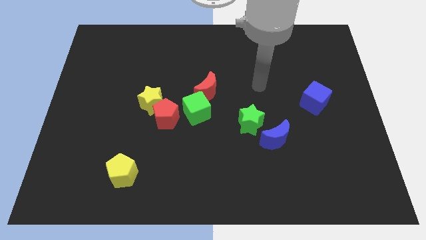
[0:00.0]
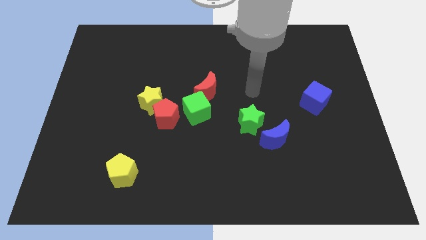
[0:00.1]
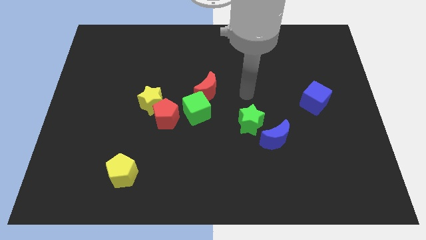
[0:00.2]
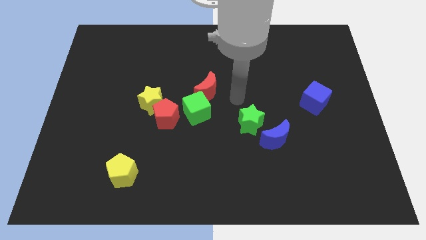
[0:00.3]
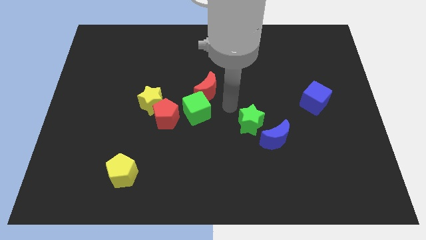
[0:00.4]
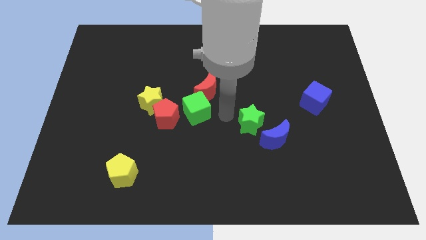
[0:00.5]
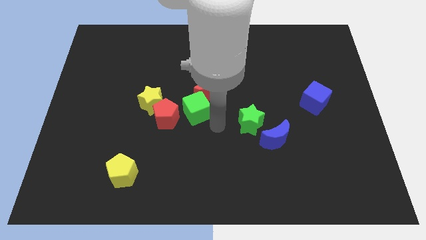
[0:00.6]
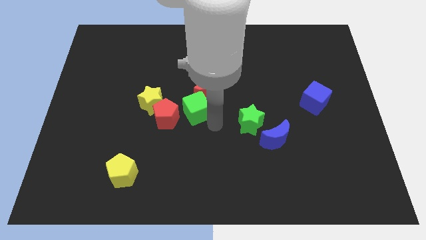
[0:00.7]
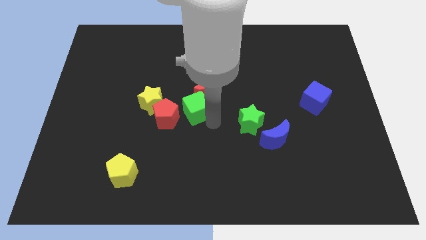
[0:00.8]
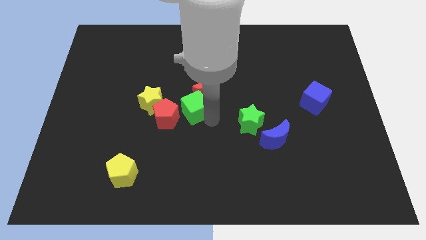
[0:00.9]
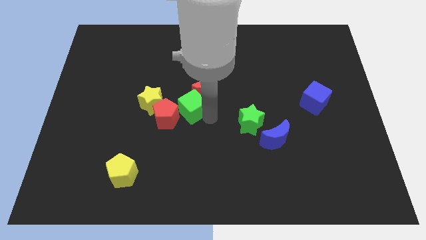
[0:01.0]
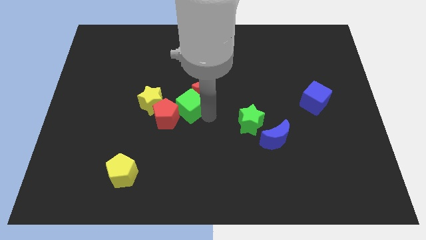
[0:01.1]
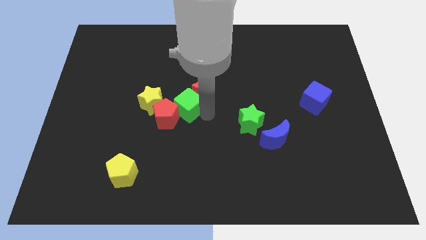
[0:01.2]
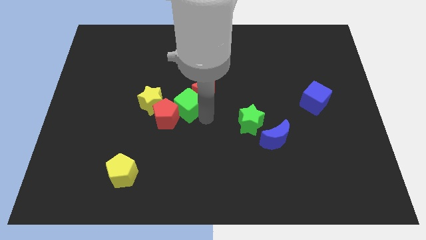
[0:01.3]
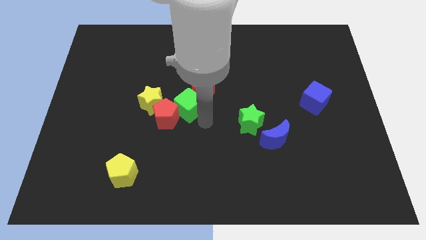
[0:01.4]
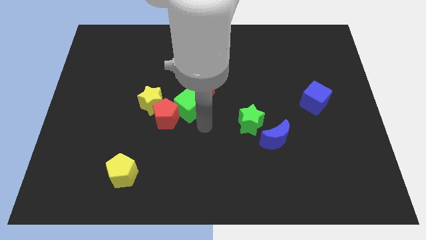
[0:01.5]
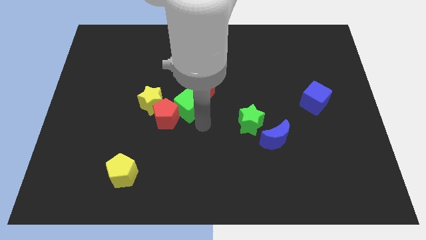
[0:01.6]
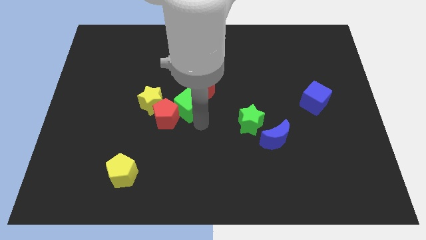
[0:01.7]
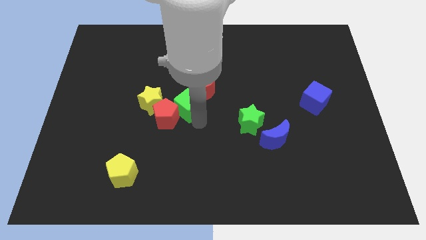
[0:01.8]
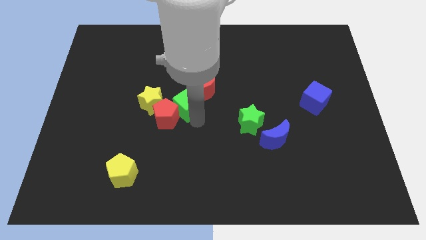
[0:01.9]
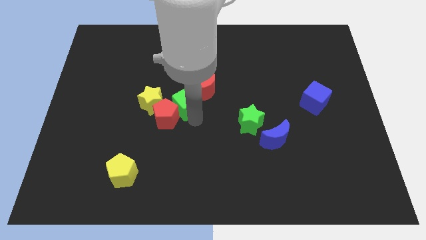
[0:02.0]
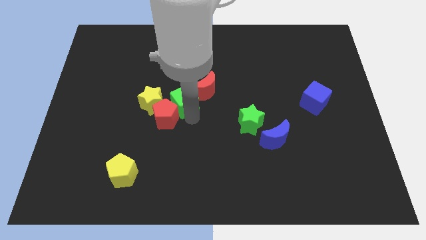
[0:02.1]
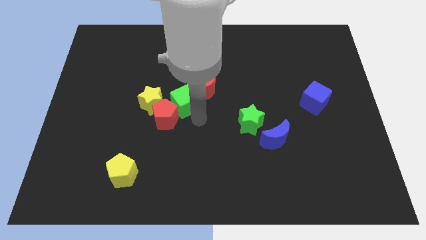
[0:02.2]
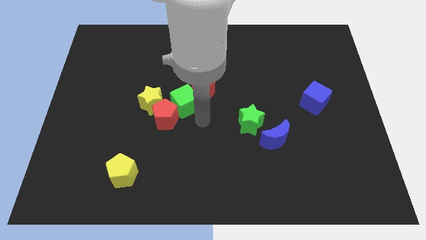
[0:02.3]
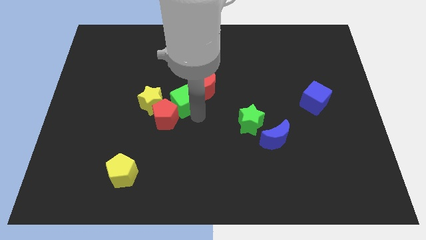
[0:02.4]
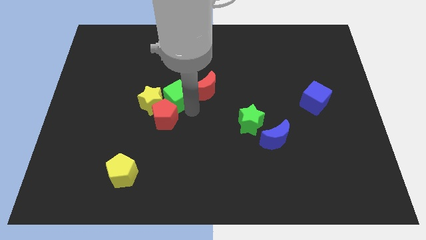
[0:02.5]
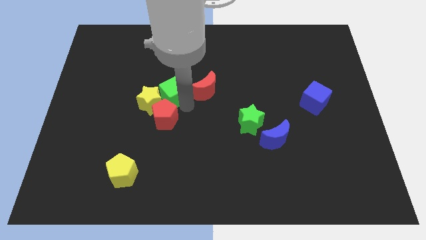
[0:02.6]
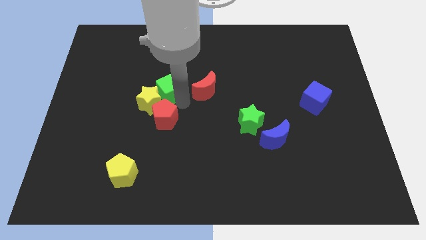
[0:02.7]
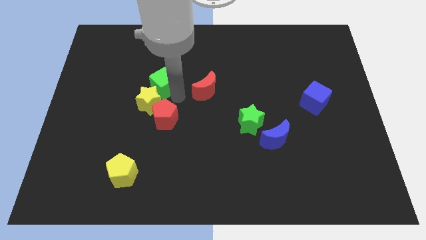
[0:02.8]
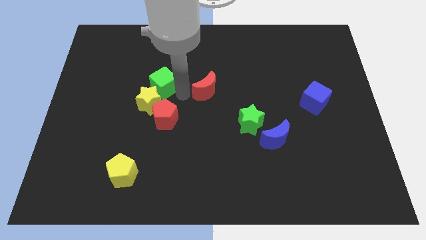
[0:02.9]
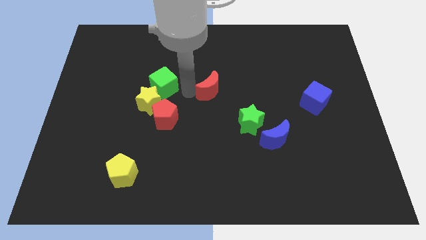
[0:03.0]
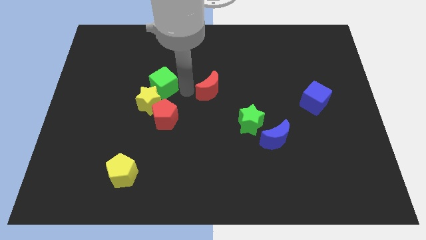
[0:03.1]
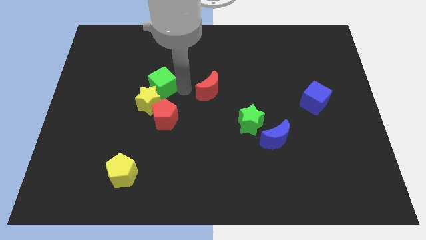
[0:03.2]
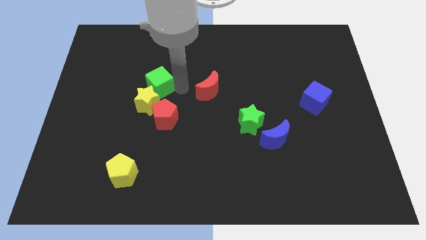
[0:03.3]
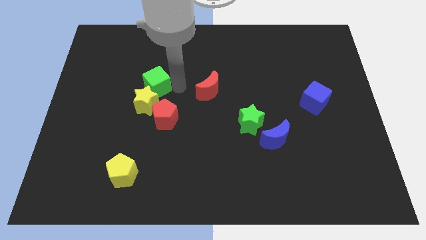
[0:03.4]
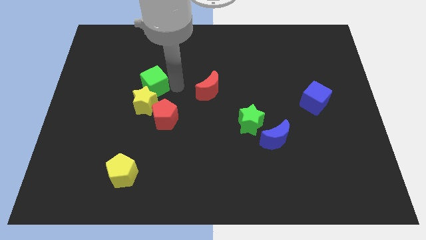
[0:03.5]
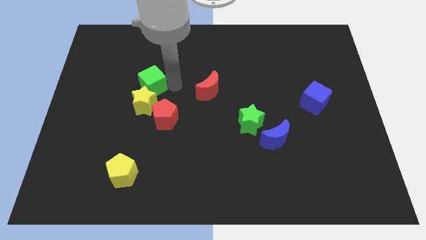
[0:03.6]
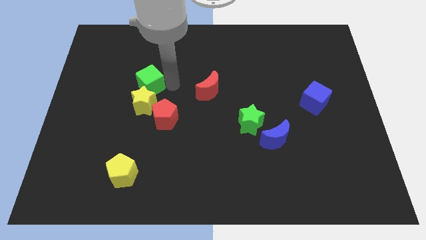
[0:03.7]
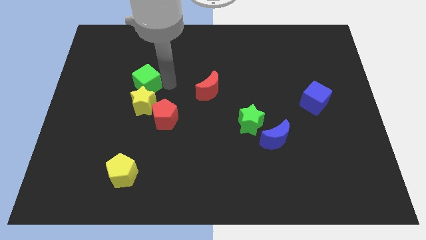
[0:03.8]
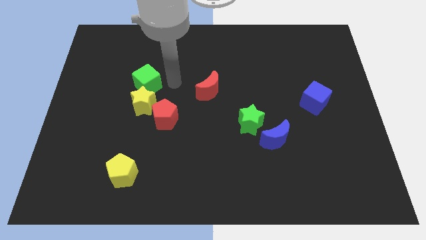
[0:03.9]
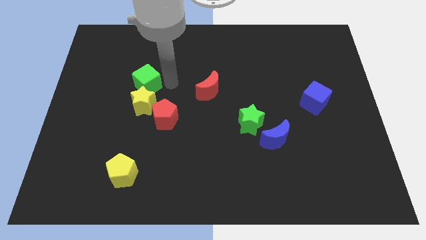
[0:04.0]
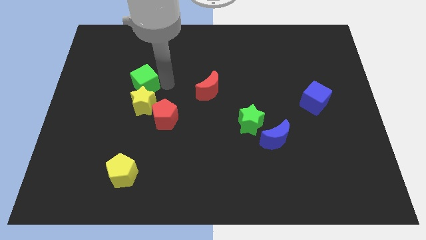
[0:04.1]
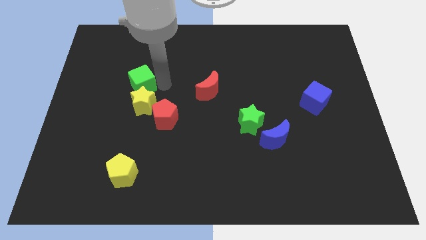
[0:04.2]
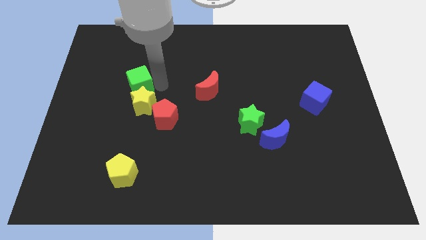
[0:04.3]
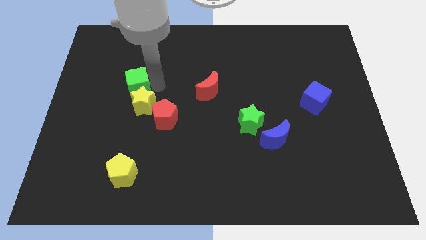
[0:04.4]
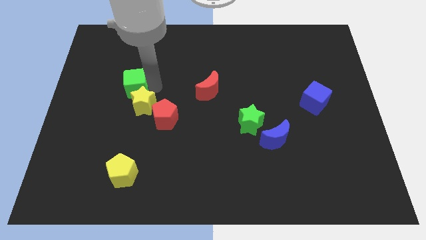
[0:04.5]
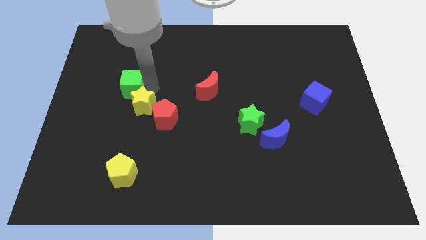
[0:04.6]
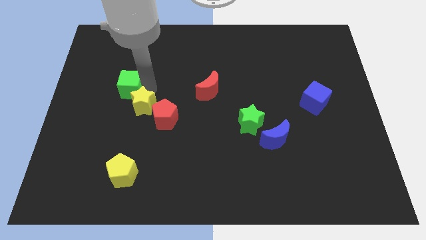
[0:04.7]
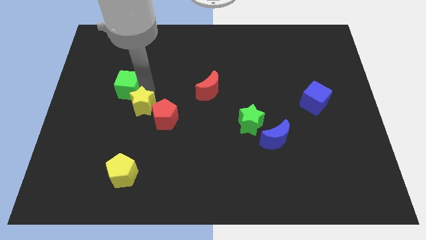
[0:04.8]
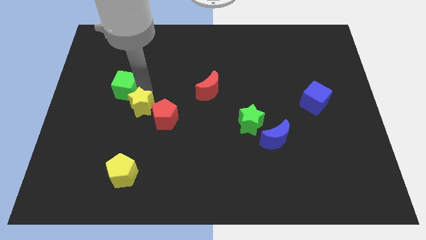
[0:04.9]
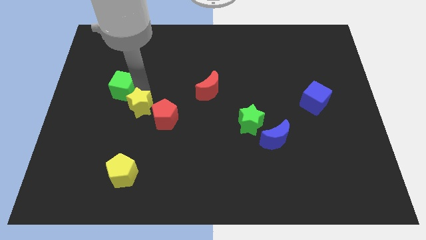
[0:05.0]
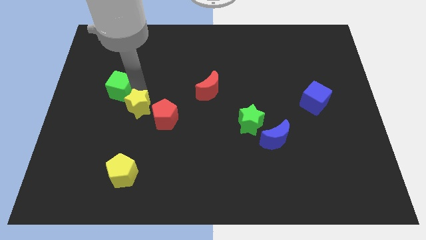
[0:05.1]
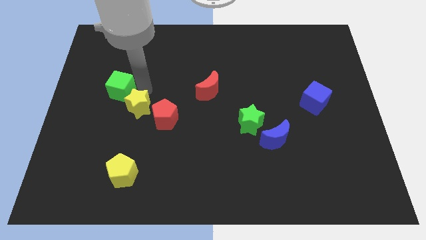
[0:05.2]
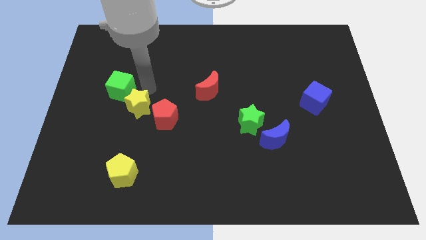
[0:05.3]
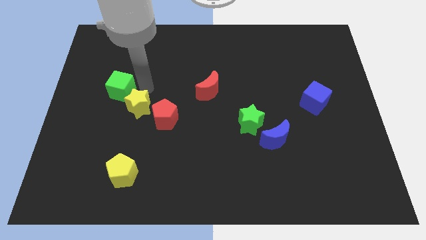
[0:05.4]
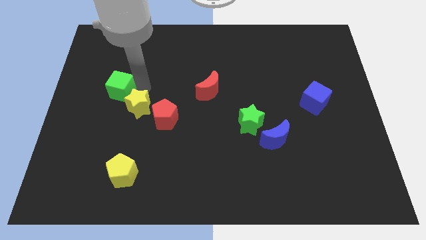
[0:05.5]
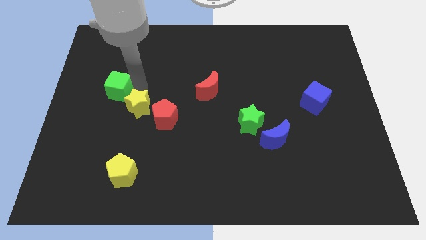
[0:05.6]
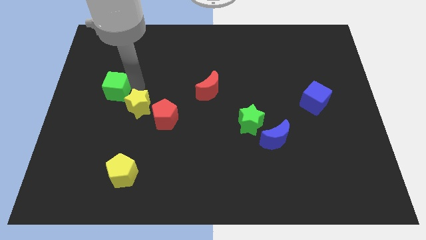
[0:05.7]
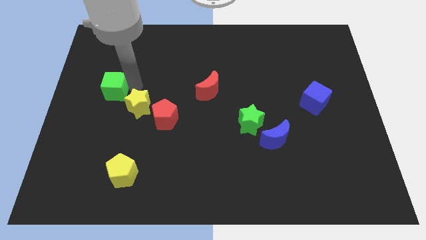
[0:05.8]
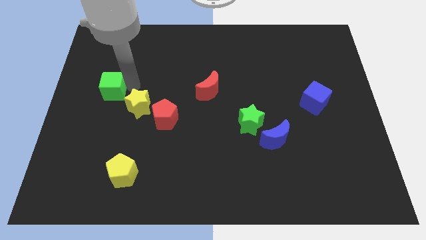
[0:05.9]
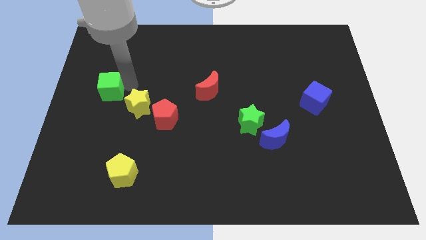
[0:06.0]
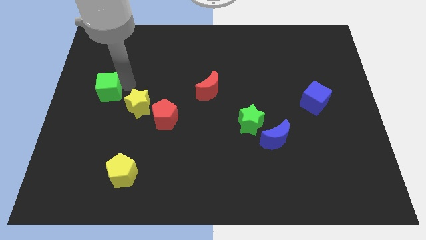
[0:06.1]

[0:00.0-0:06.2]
slide the green cube to the center left
